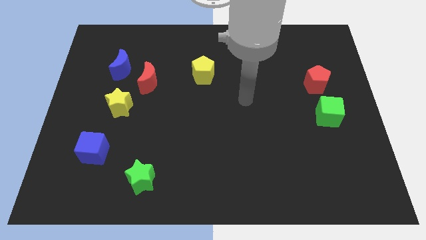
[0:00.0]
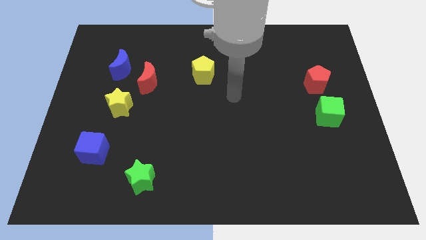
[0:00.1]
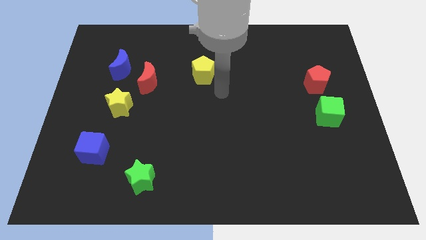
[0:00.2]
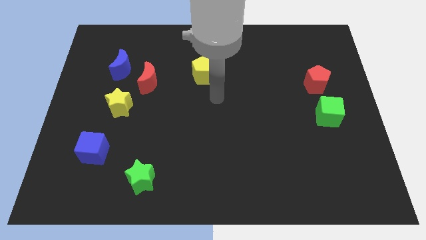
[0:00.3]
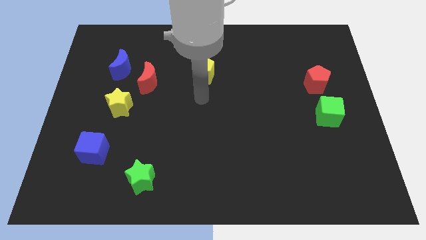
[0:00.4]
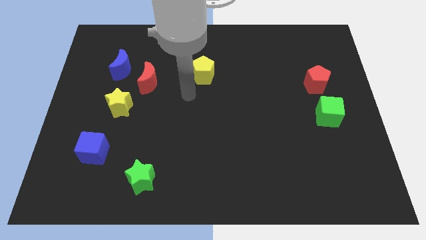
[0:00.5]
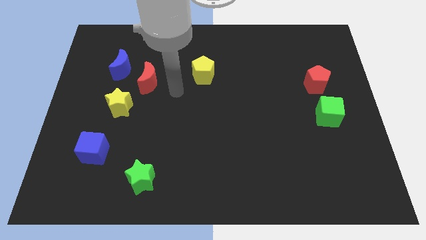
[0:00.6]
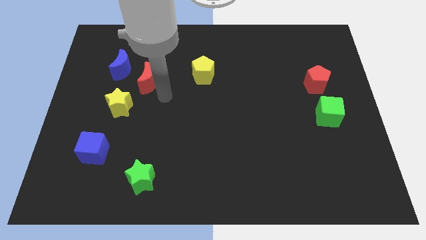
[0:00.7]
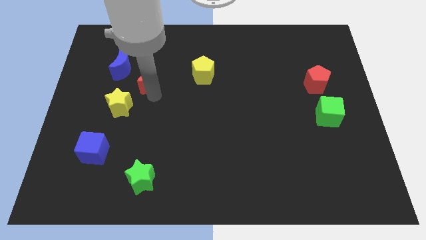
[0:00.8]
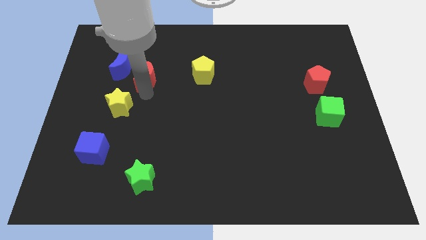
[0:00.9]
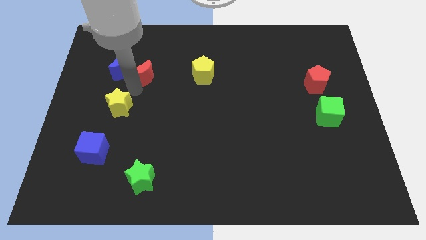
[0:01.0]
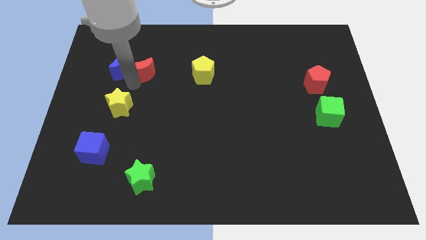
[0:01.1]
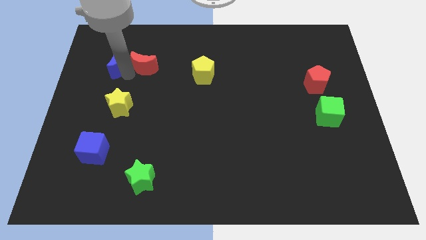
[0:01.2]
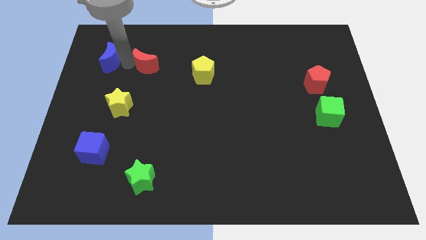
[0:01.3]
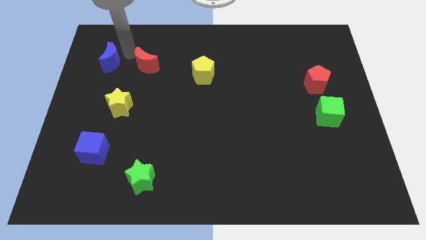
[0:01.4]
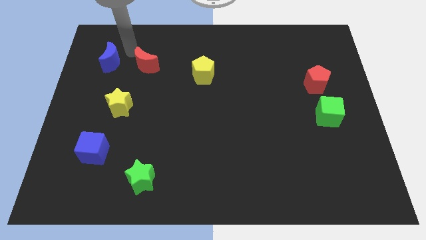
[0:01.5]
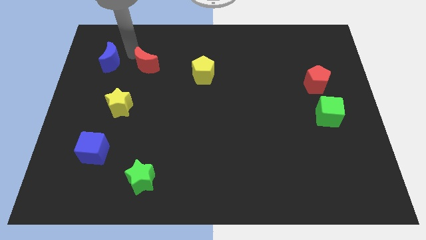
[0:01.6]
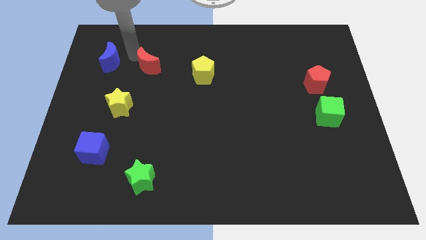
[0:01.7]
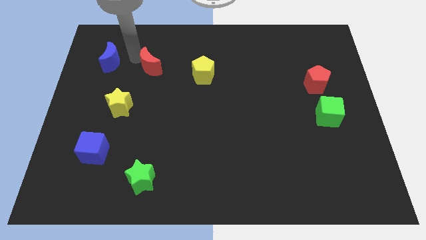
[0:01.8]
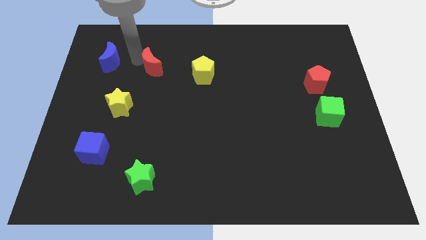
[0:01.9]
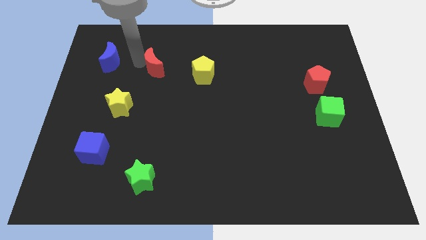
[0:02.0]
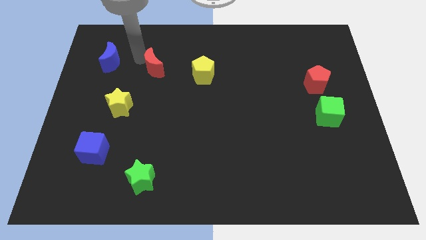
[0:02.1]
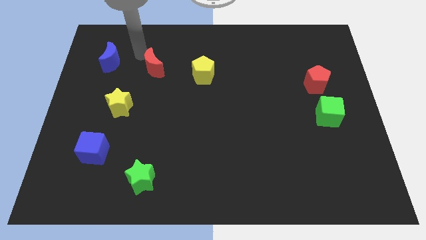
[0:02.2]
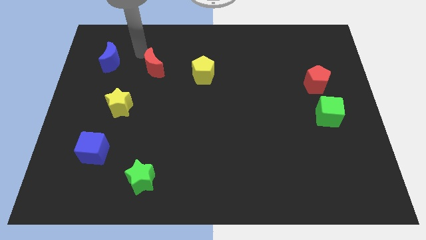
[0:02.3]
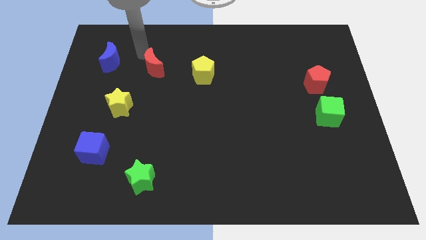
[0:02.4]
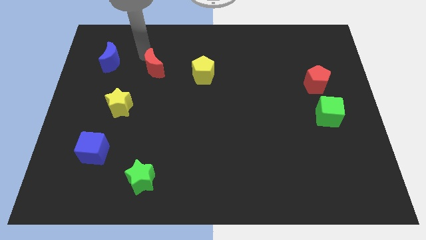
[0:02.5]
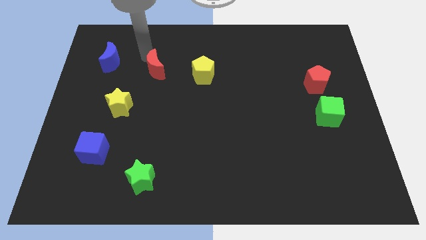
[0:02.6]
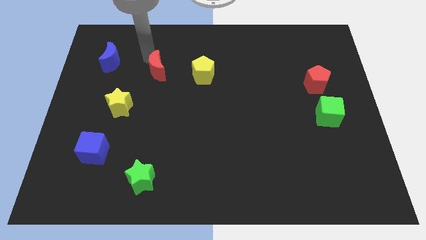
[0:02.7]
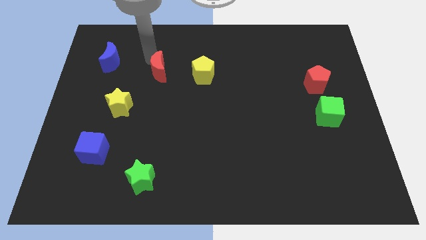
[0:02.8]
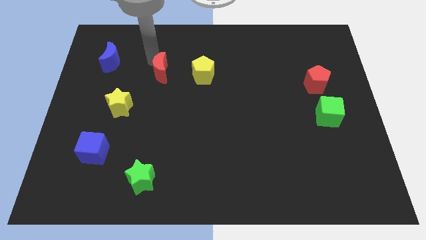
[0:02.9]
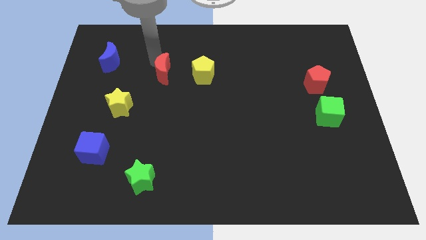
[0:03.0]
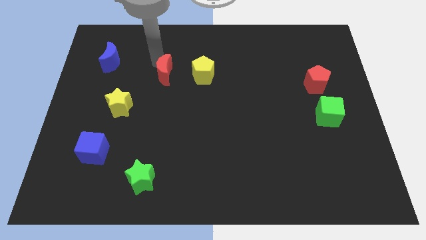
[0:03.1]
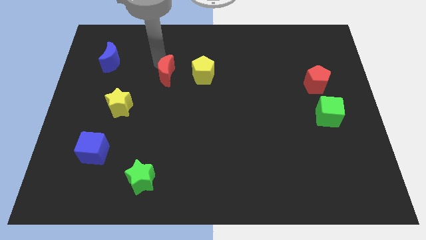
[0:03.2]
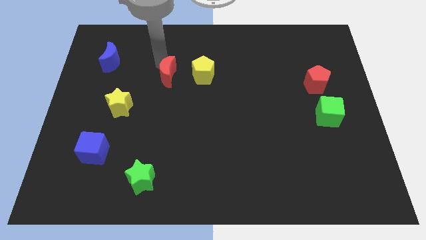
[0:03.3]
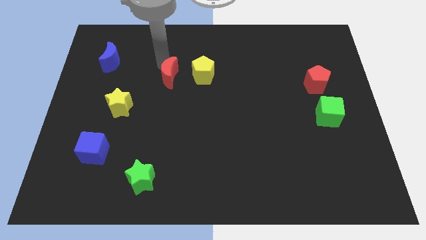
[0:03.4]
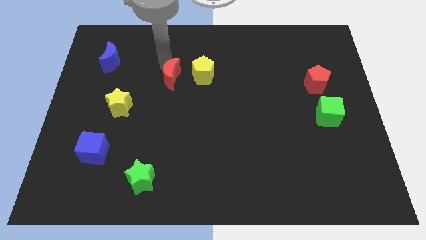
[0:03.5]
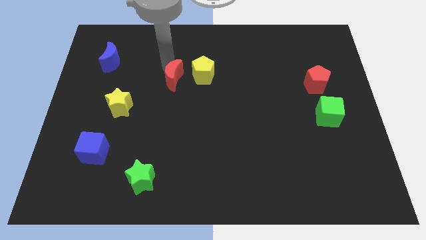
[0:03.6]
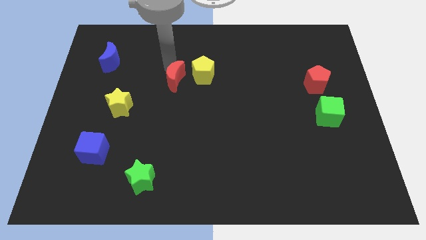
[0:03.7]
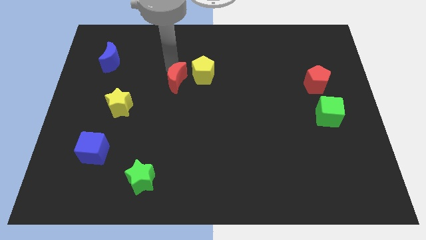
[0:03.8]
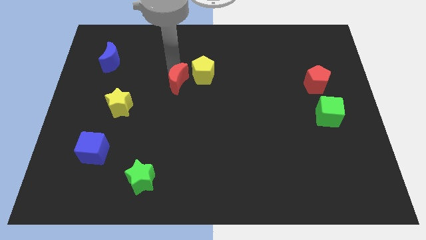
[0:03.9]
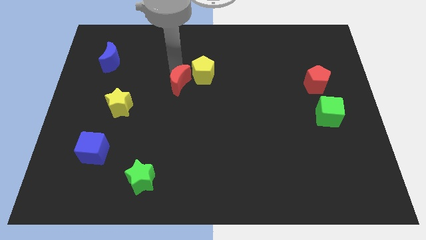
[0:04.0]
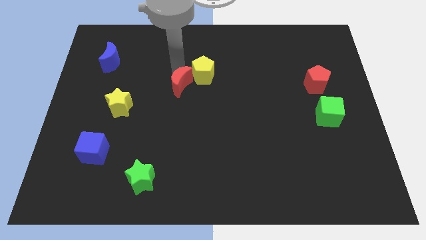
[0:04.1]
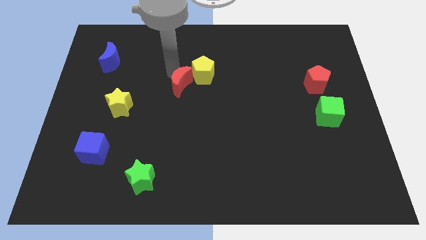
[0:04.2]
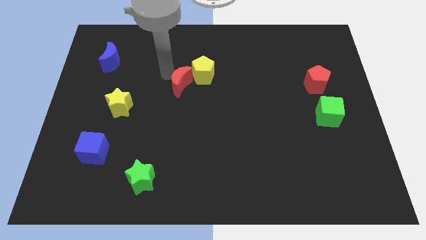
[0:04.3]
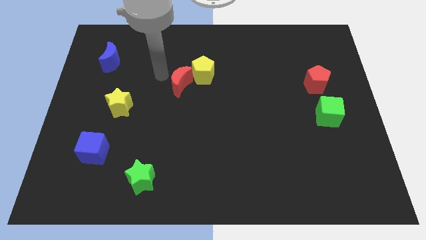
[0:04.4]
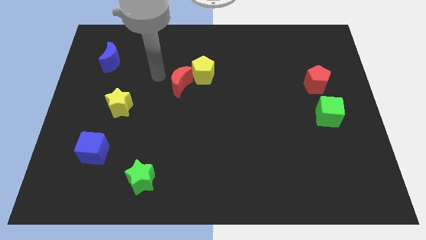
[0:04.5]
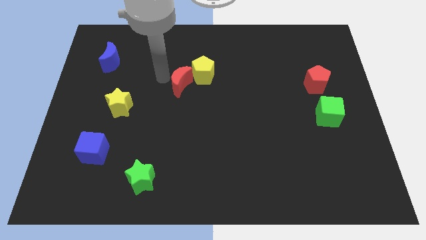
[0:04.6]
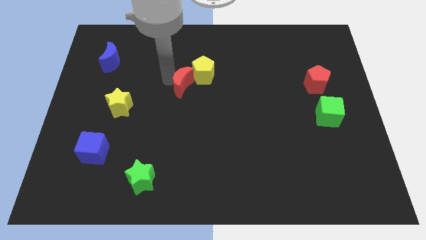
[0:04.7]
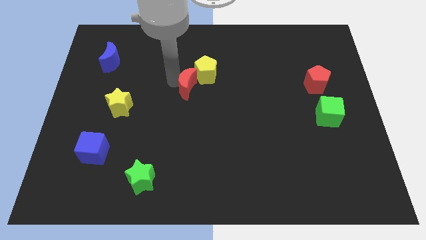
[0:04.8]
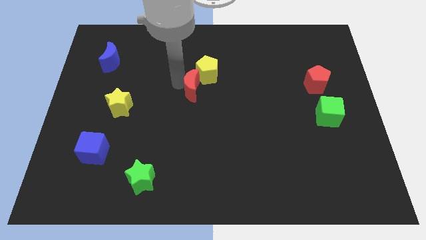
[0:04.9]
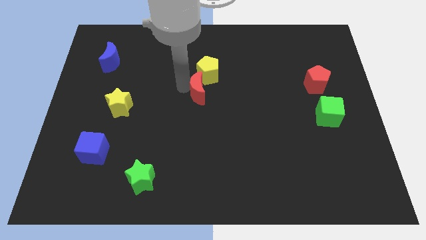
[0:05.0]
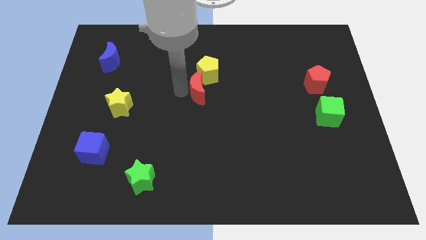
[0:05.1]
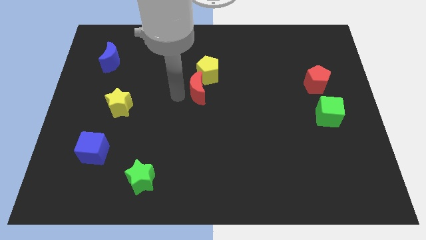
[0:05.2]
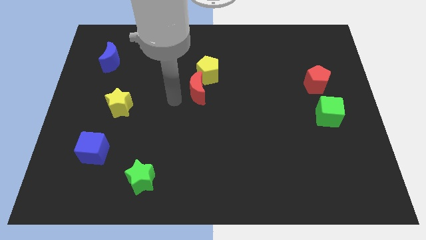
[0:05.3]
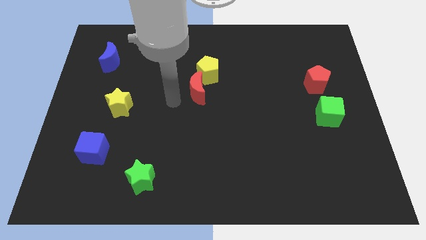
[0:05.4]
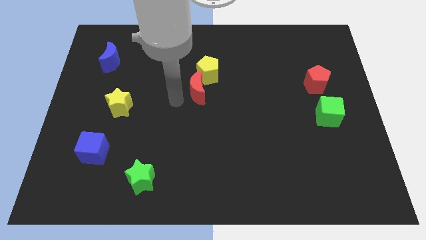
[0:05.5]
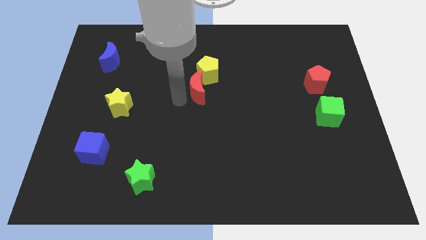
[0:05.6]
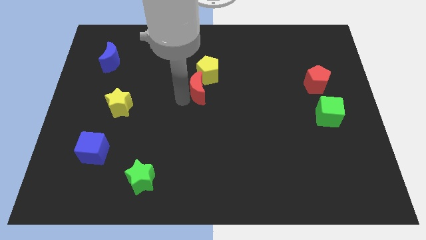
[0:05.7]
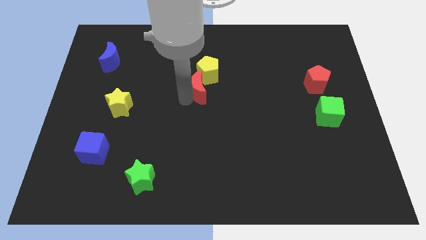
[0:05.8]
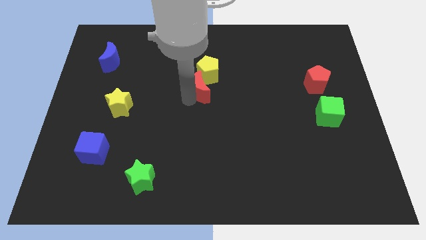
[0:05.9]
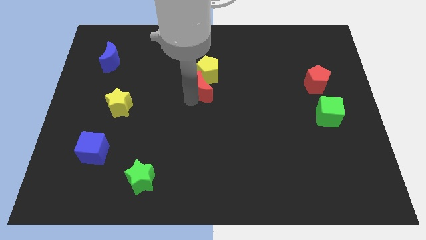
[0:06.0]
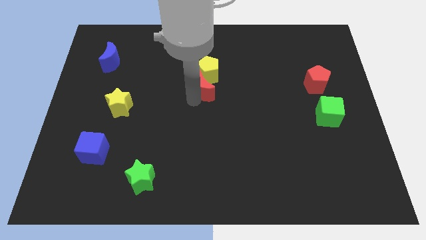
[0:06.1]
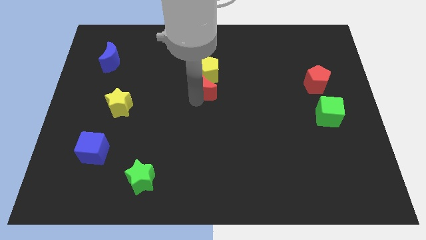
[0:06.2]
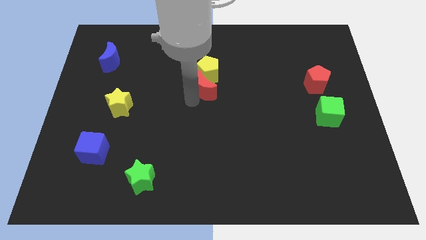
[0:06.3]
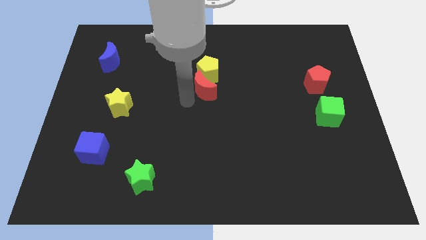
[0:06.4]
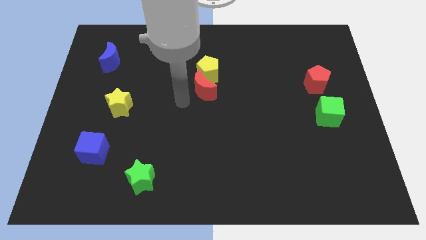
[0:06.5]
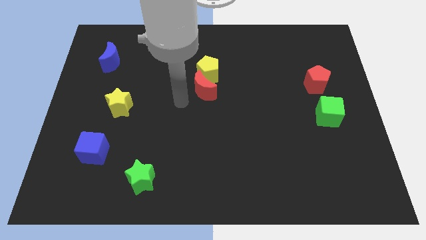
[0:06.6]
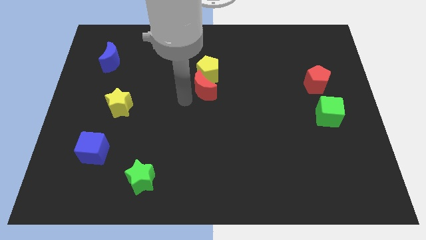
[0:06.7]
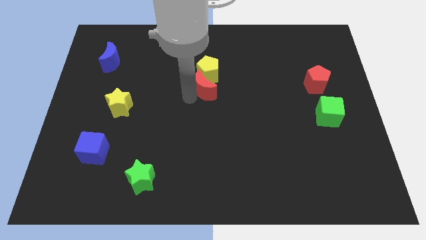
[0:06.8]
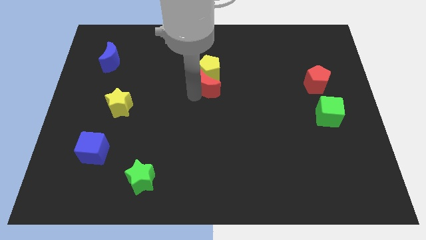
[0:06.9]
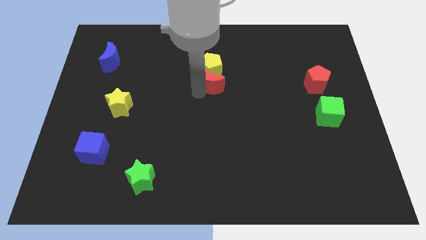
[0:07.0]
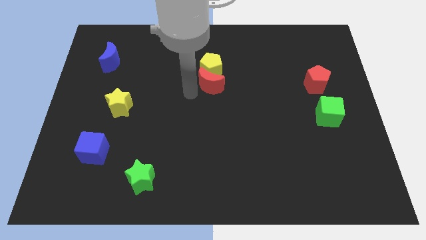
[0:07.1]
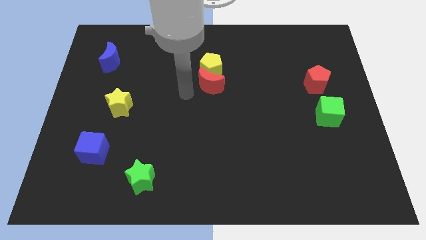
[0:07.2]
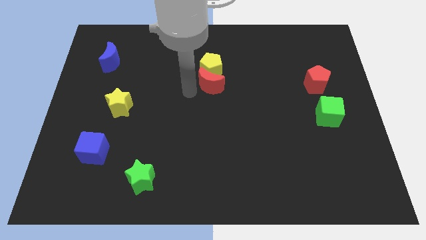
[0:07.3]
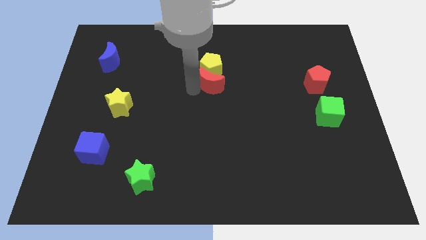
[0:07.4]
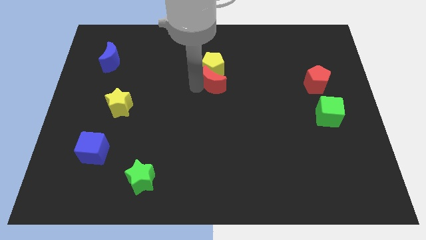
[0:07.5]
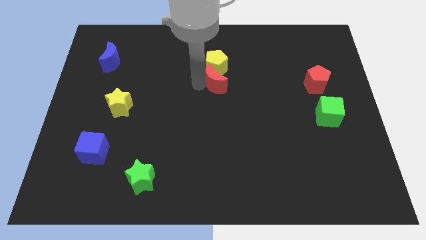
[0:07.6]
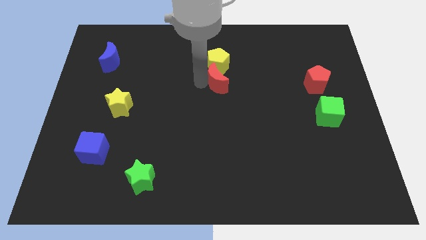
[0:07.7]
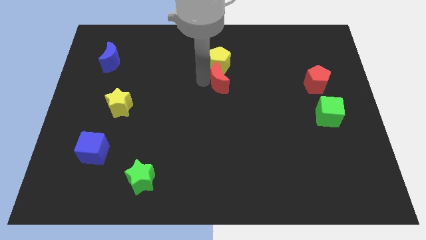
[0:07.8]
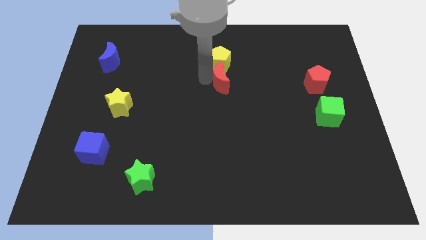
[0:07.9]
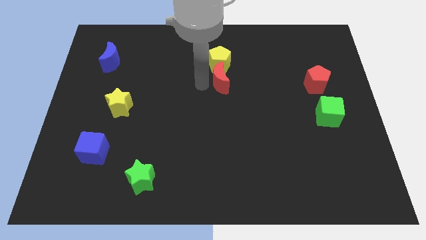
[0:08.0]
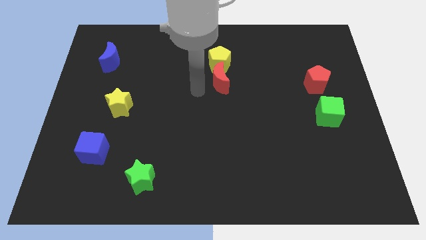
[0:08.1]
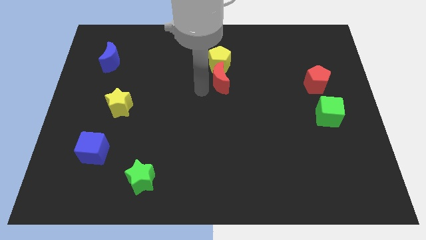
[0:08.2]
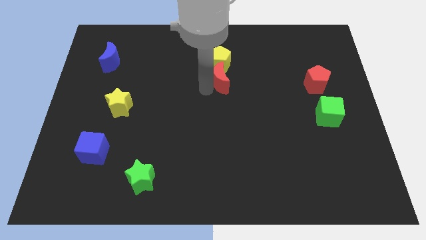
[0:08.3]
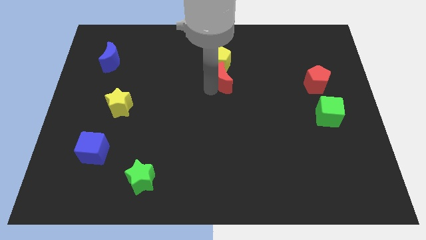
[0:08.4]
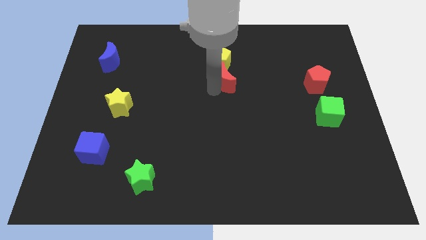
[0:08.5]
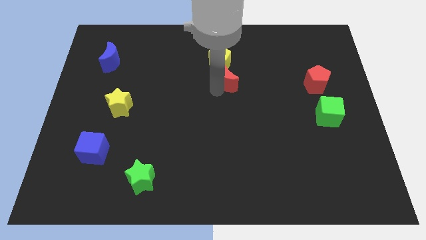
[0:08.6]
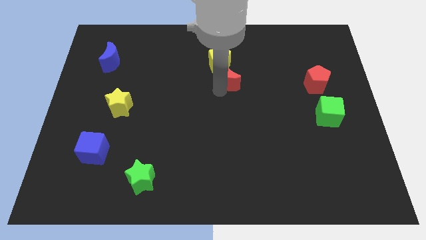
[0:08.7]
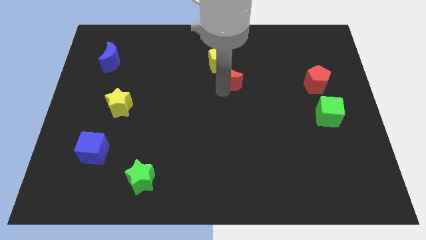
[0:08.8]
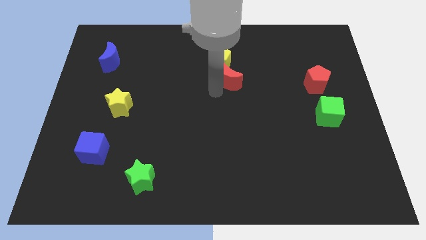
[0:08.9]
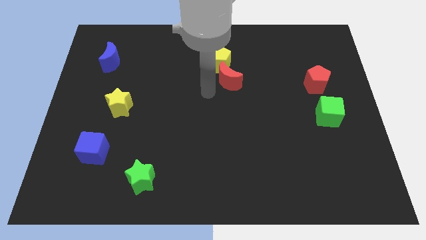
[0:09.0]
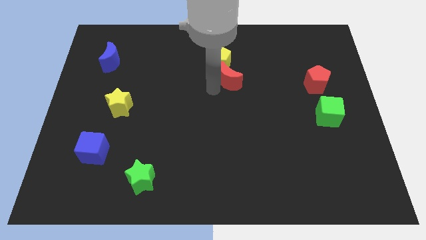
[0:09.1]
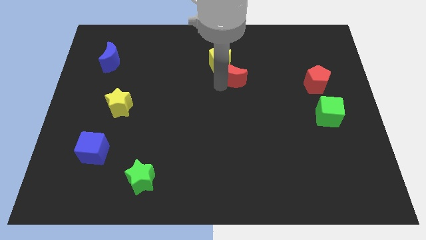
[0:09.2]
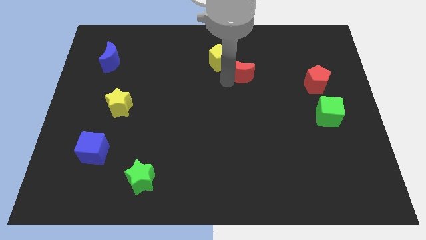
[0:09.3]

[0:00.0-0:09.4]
slide the red moon right of the yellow pentagon
